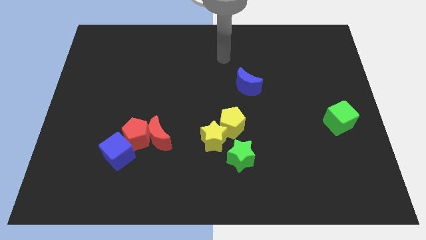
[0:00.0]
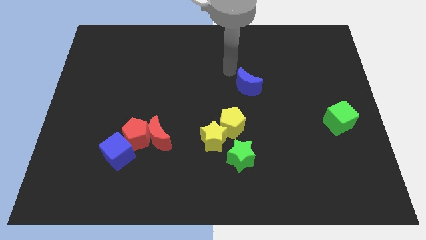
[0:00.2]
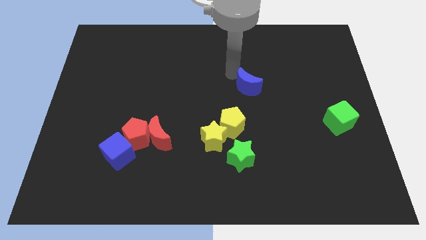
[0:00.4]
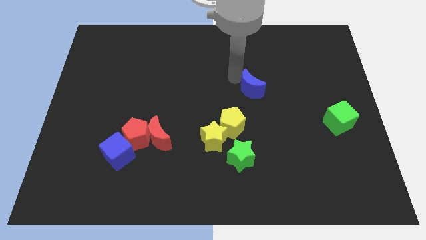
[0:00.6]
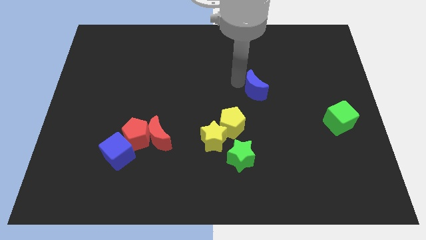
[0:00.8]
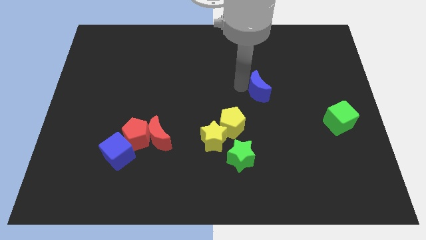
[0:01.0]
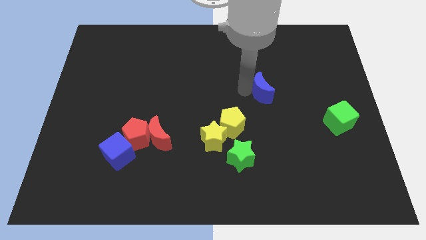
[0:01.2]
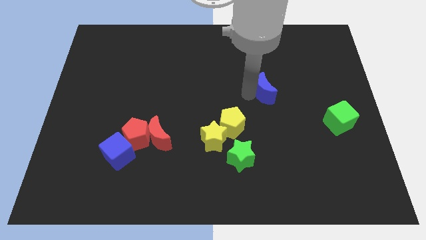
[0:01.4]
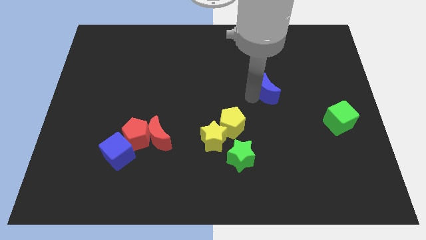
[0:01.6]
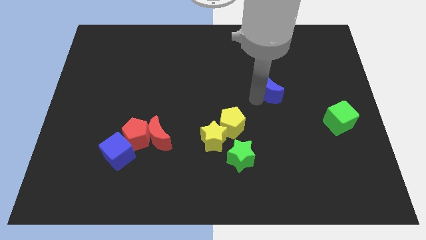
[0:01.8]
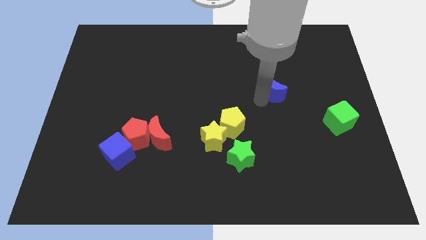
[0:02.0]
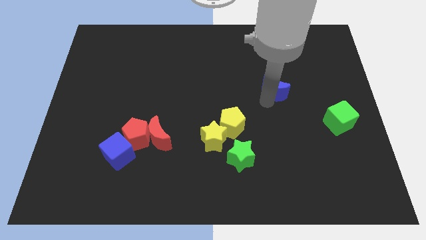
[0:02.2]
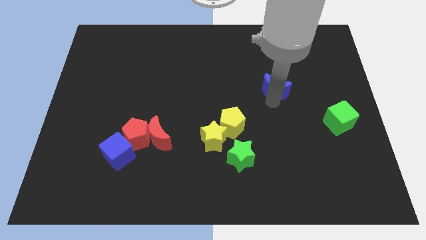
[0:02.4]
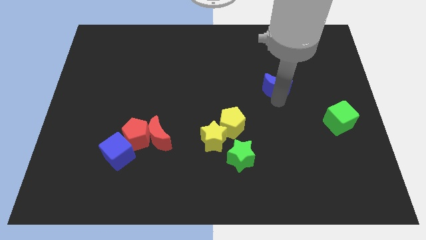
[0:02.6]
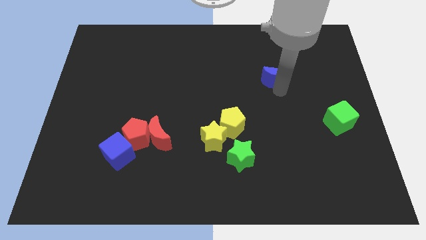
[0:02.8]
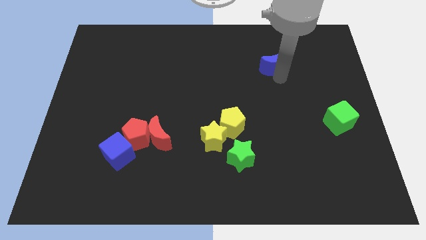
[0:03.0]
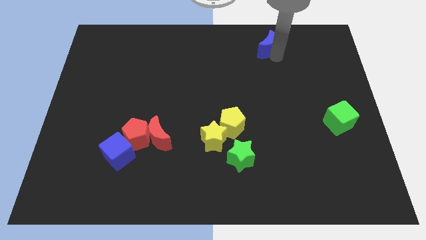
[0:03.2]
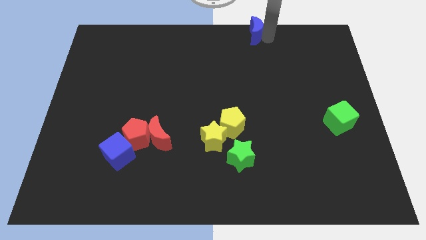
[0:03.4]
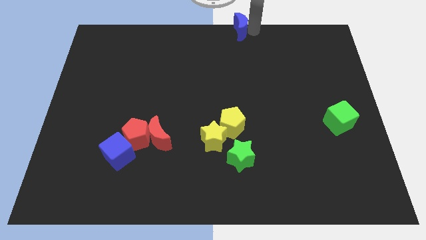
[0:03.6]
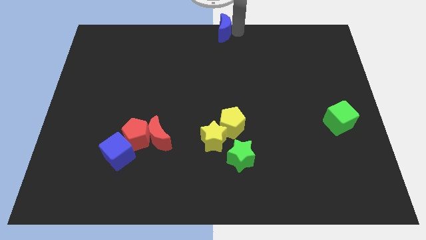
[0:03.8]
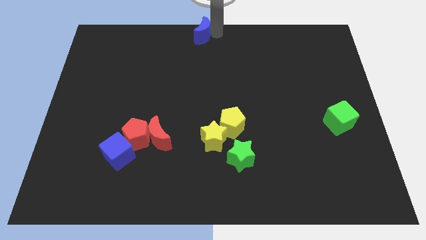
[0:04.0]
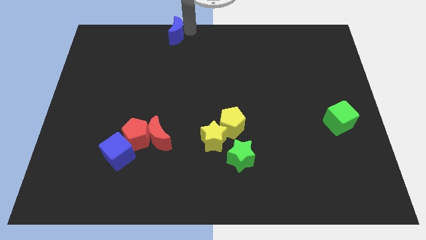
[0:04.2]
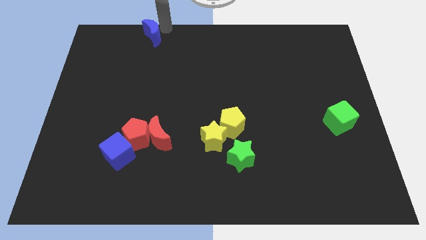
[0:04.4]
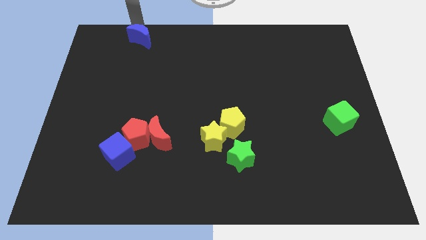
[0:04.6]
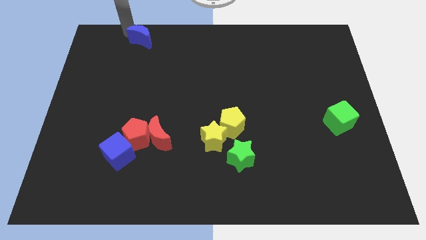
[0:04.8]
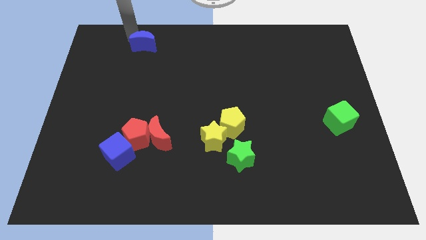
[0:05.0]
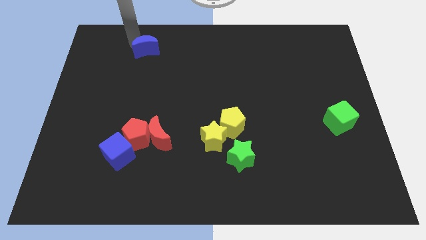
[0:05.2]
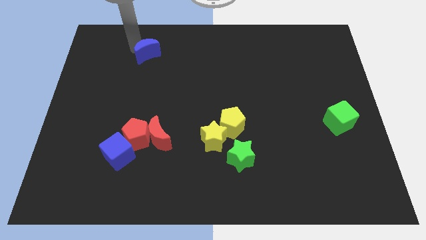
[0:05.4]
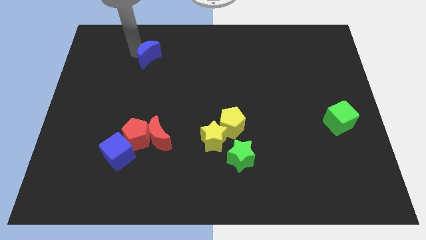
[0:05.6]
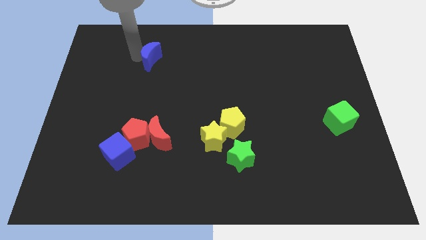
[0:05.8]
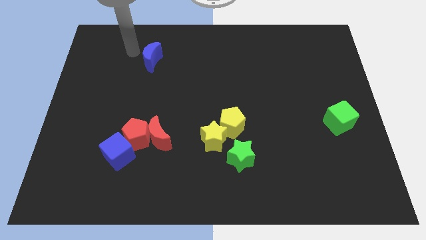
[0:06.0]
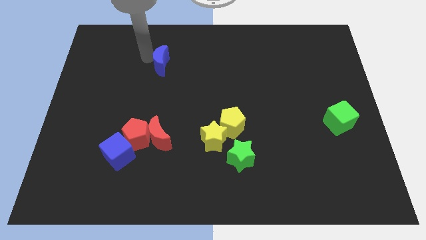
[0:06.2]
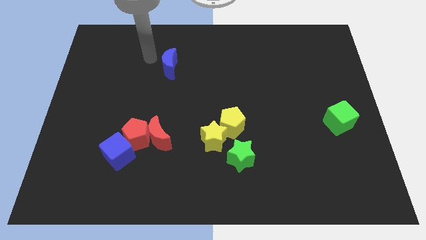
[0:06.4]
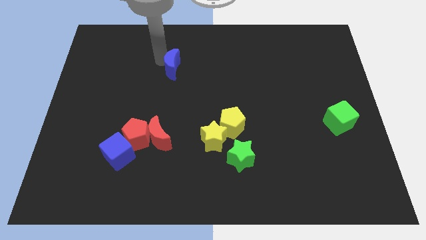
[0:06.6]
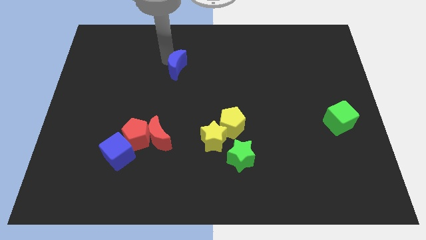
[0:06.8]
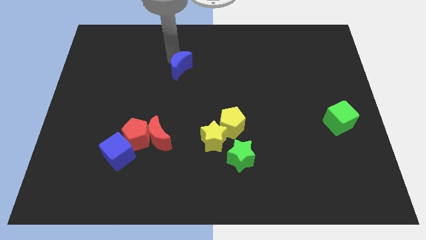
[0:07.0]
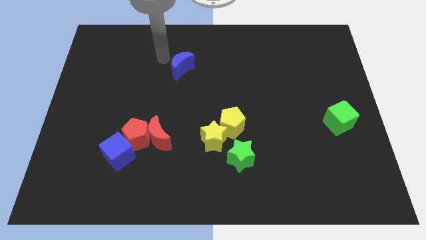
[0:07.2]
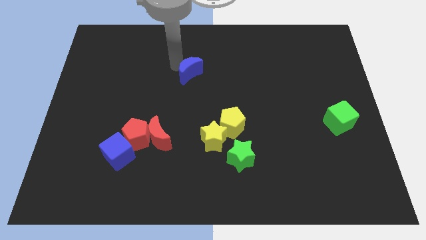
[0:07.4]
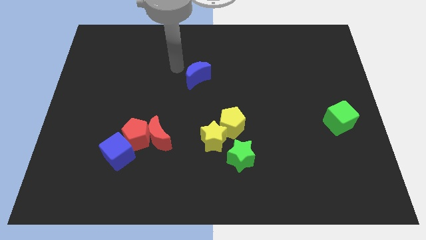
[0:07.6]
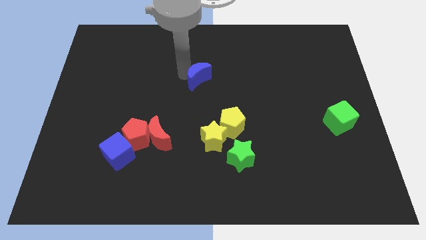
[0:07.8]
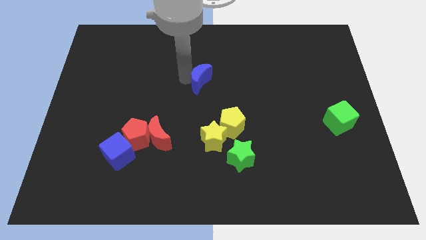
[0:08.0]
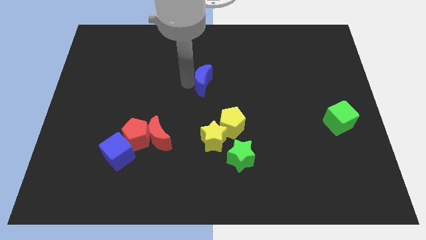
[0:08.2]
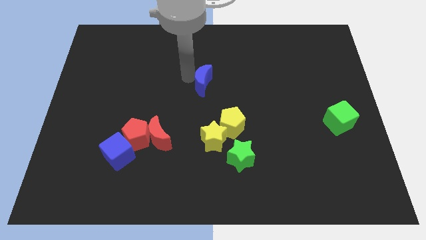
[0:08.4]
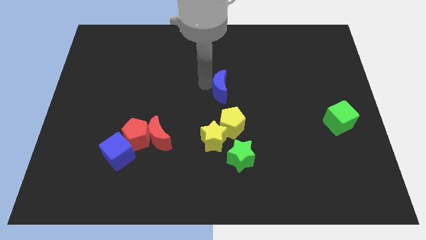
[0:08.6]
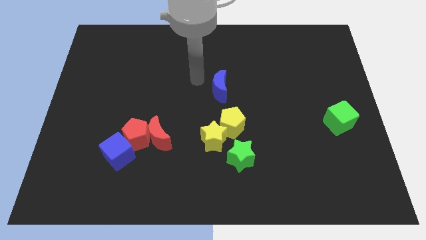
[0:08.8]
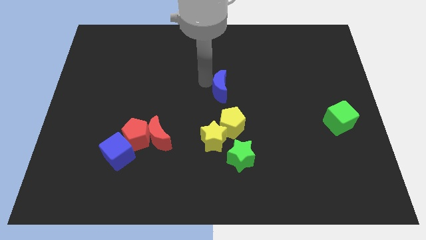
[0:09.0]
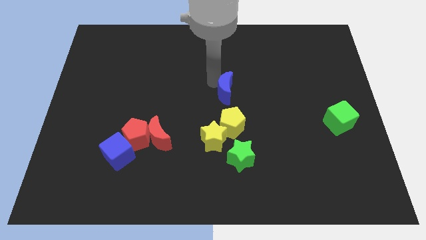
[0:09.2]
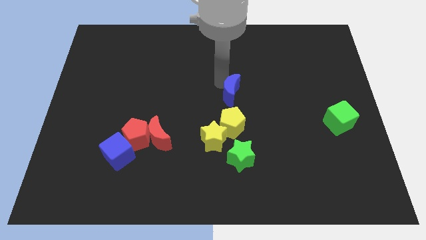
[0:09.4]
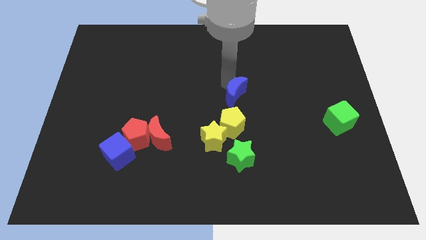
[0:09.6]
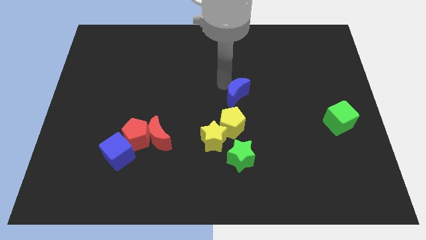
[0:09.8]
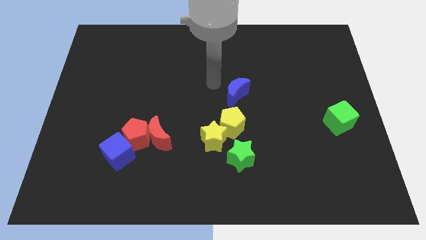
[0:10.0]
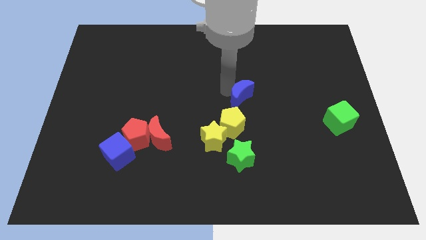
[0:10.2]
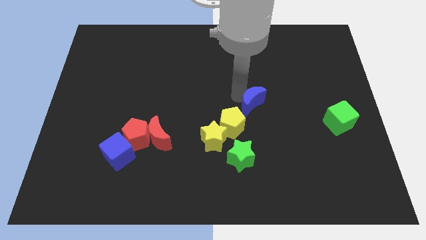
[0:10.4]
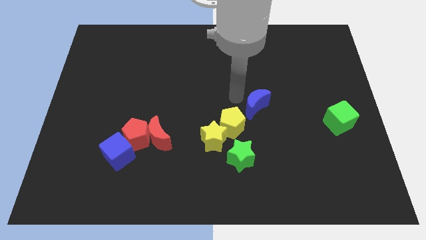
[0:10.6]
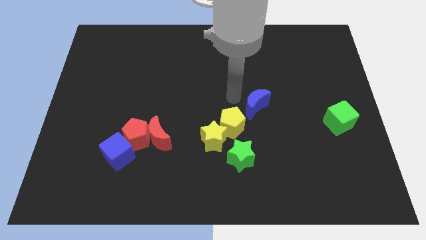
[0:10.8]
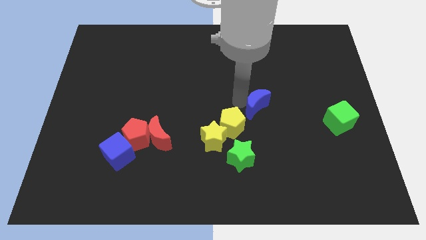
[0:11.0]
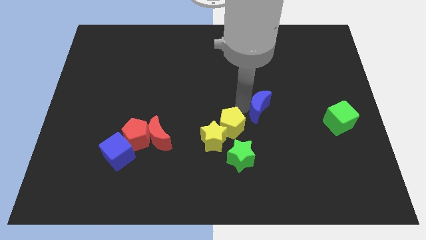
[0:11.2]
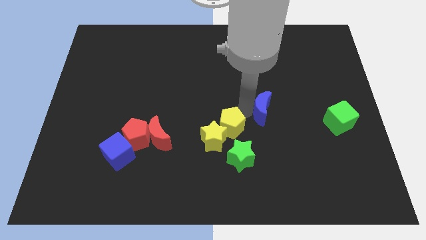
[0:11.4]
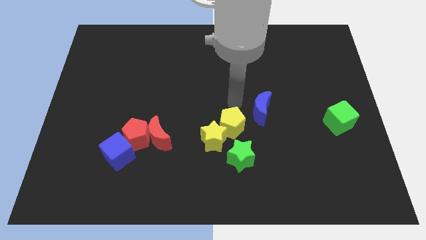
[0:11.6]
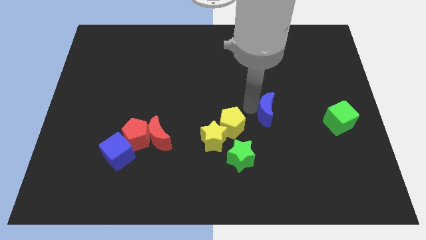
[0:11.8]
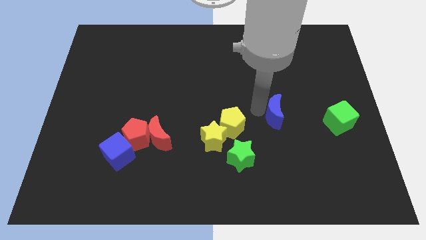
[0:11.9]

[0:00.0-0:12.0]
move the blue moon to the left side of the green cube

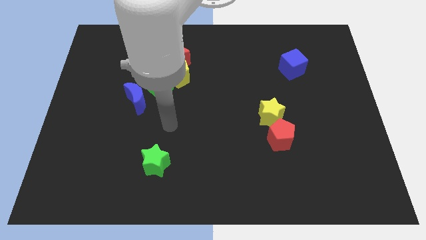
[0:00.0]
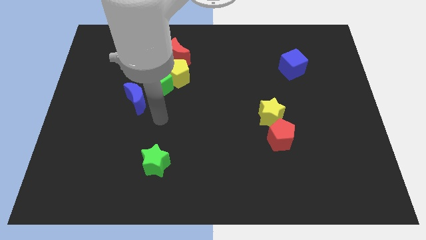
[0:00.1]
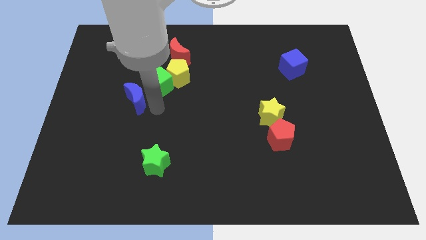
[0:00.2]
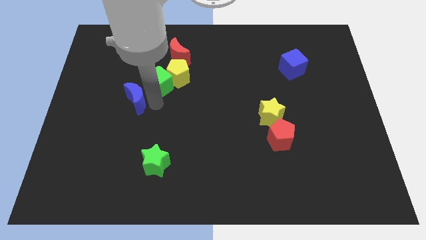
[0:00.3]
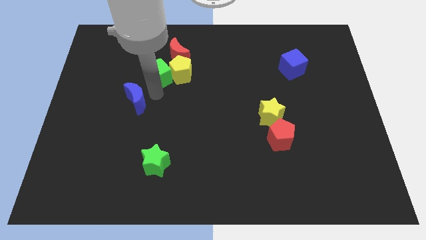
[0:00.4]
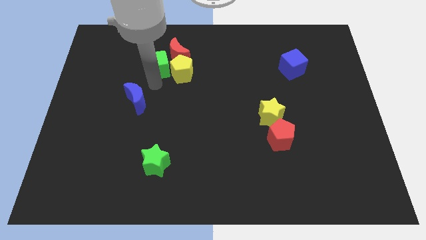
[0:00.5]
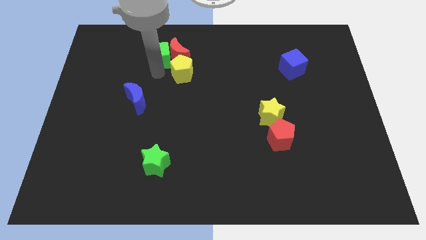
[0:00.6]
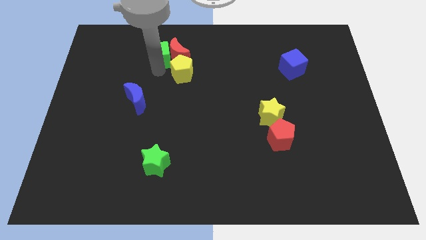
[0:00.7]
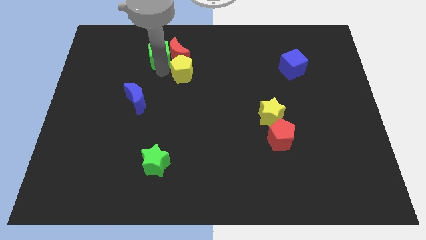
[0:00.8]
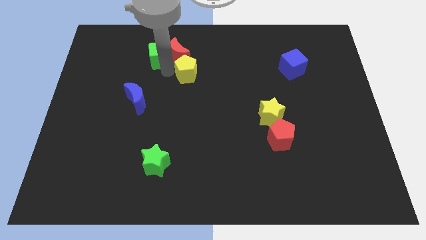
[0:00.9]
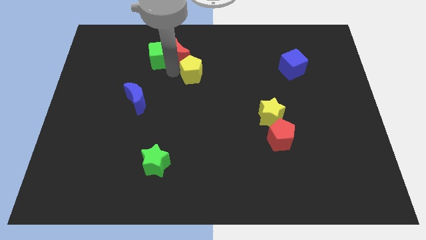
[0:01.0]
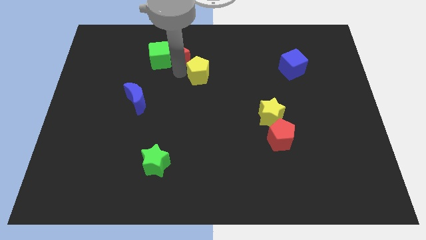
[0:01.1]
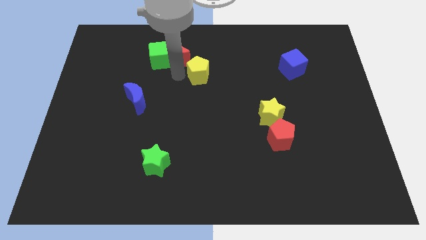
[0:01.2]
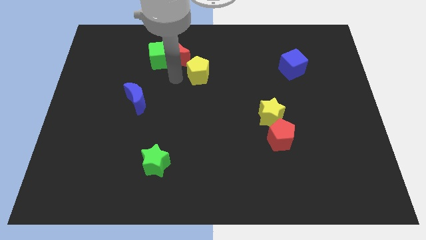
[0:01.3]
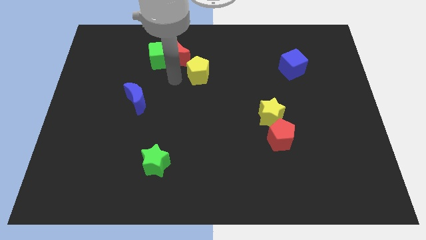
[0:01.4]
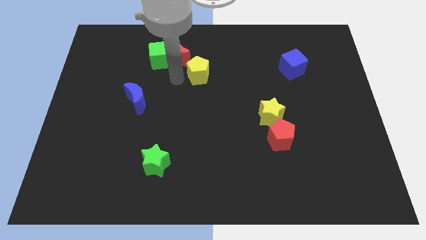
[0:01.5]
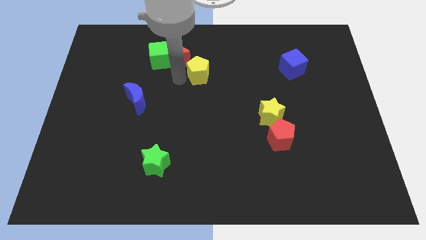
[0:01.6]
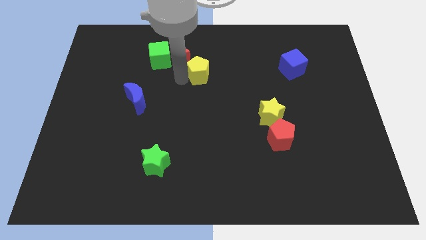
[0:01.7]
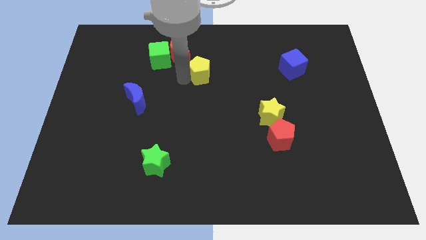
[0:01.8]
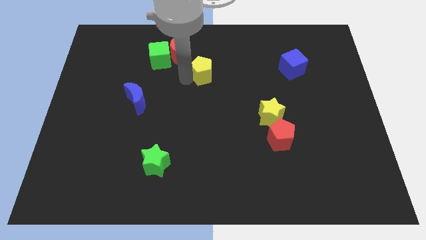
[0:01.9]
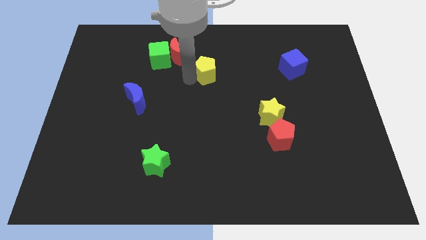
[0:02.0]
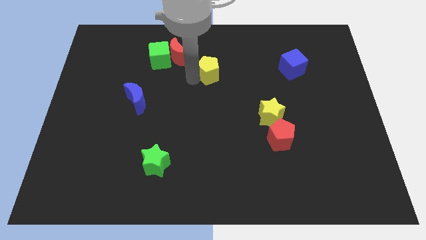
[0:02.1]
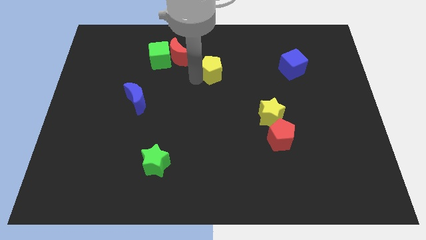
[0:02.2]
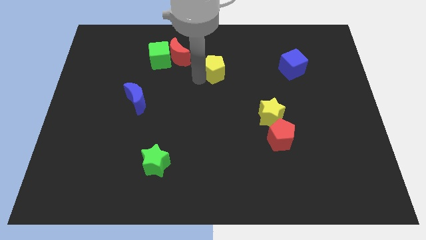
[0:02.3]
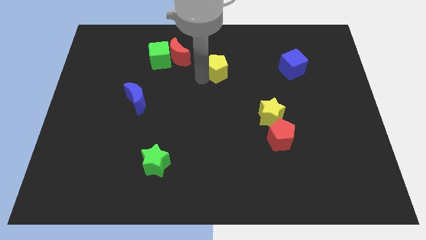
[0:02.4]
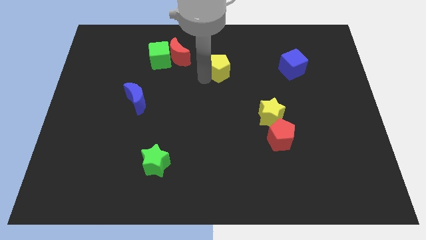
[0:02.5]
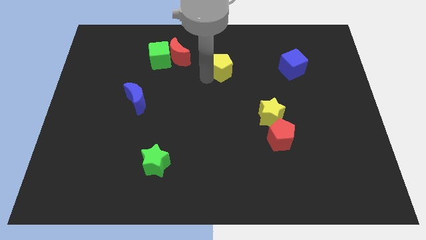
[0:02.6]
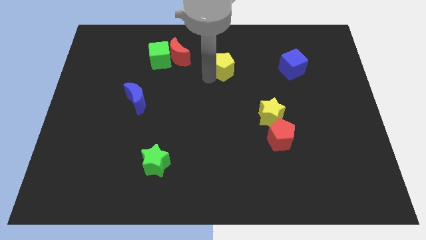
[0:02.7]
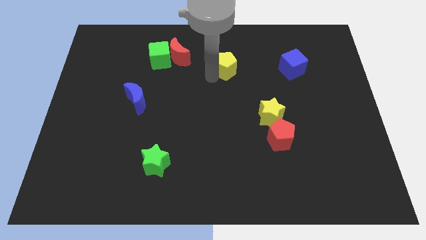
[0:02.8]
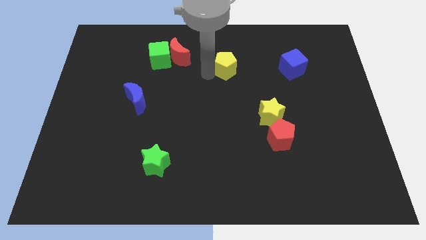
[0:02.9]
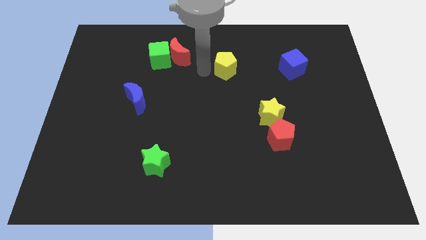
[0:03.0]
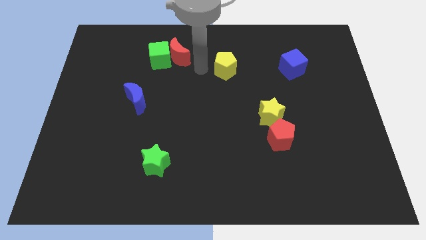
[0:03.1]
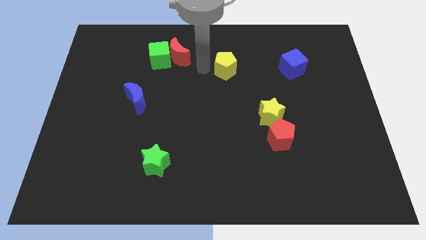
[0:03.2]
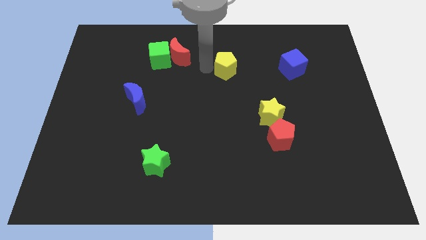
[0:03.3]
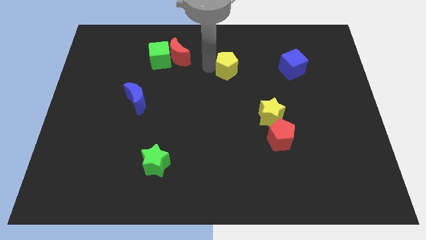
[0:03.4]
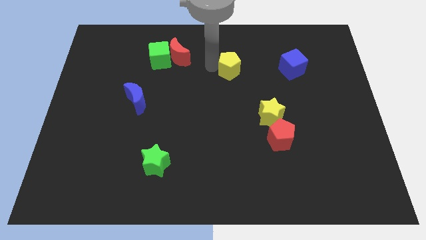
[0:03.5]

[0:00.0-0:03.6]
move the yellow pentagon to the left of the blue cube
